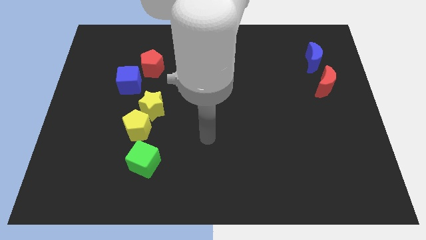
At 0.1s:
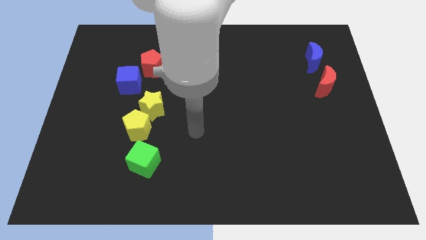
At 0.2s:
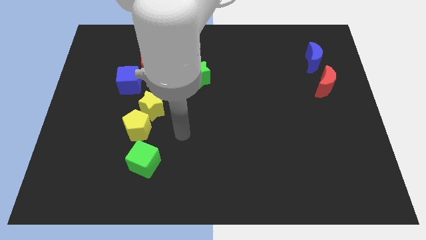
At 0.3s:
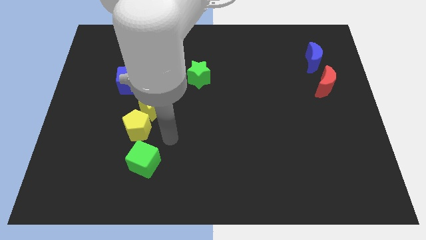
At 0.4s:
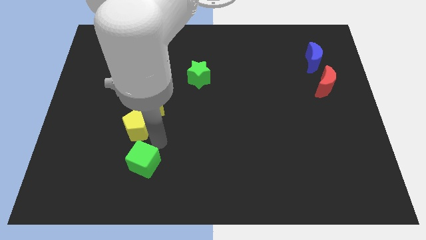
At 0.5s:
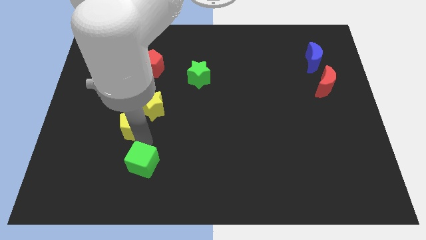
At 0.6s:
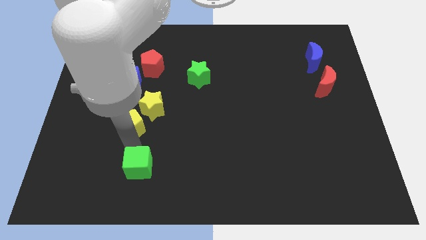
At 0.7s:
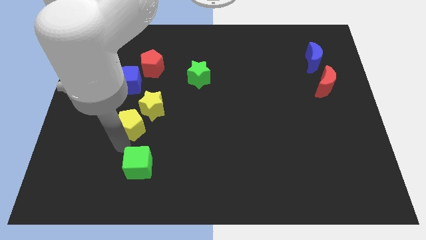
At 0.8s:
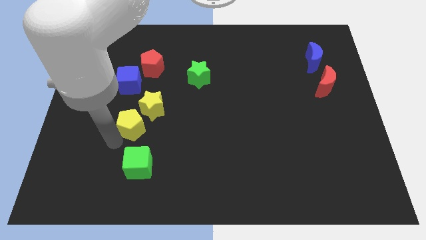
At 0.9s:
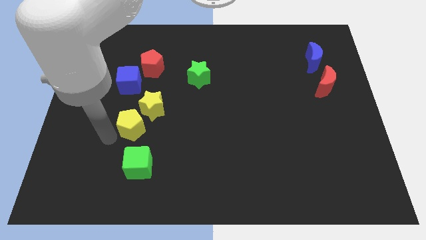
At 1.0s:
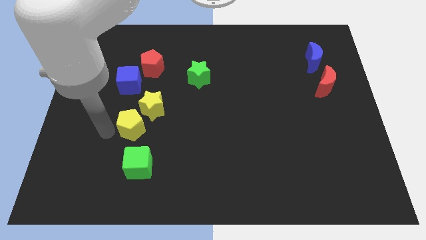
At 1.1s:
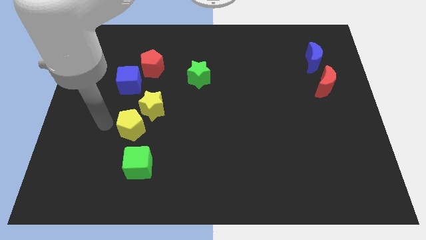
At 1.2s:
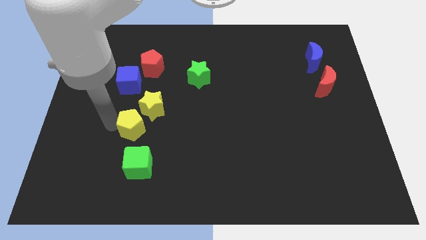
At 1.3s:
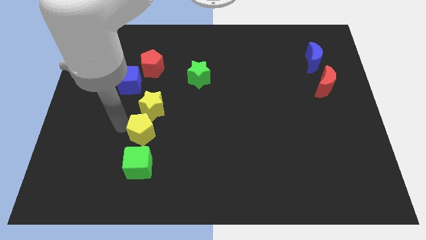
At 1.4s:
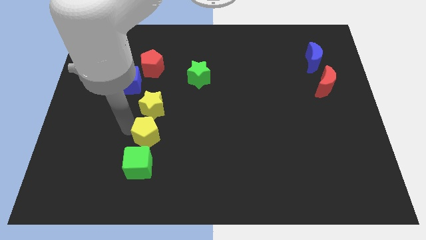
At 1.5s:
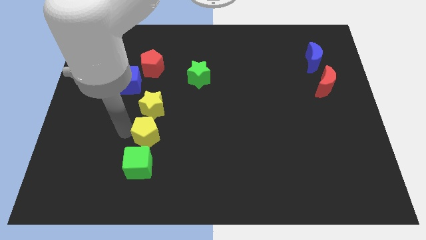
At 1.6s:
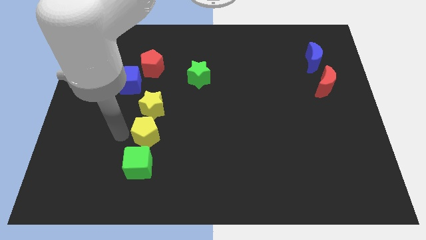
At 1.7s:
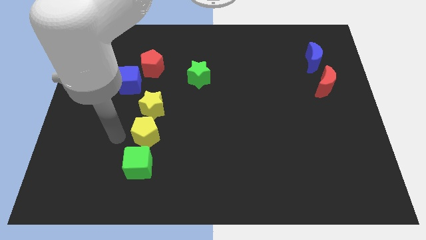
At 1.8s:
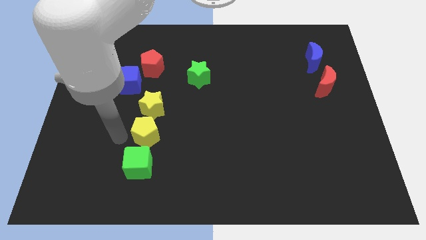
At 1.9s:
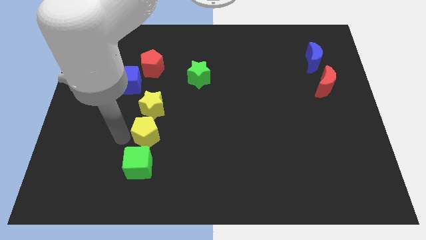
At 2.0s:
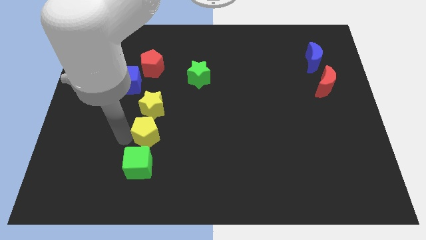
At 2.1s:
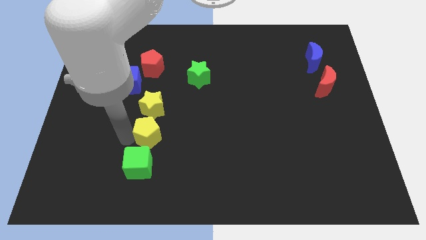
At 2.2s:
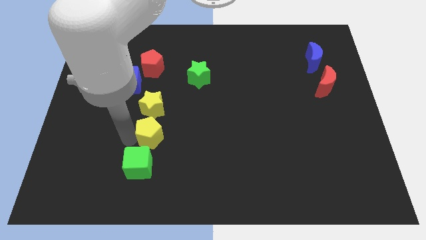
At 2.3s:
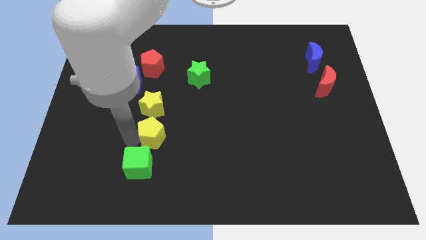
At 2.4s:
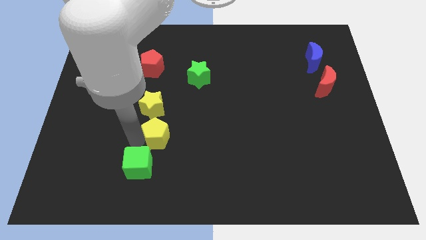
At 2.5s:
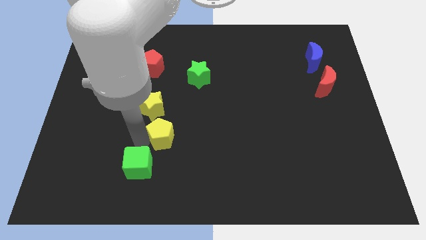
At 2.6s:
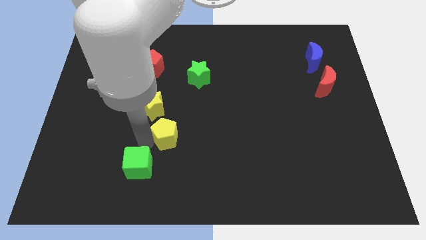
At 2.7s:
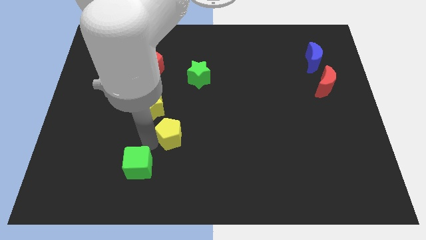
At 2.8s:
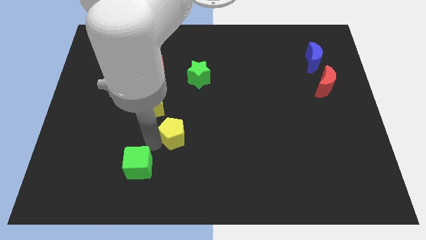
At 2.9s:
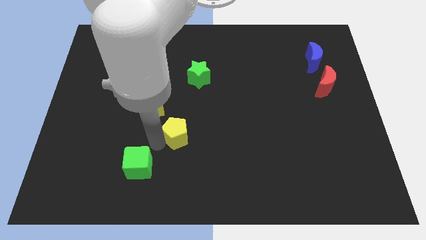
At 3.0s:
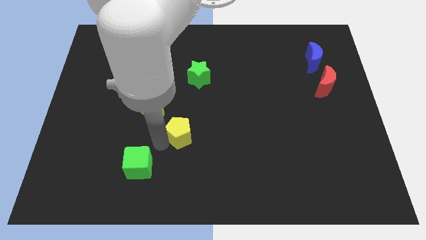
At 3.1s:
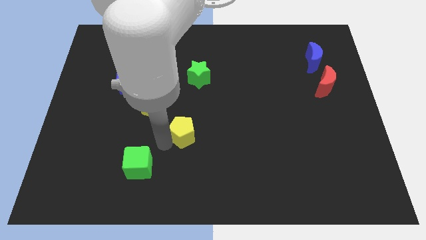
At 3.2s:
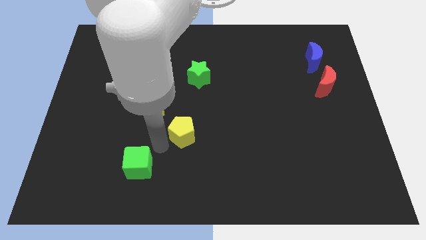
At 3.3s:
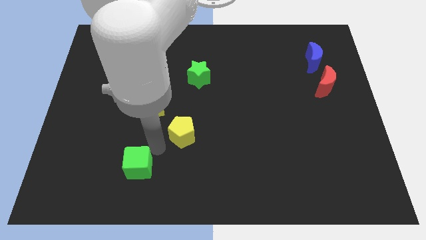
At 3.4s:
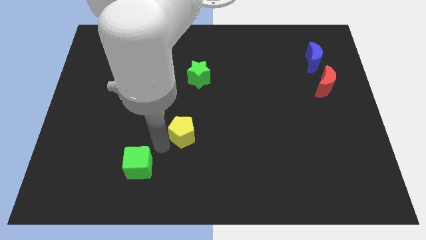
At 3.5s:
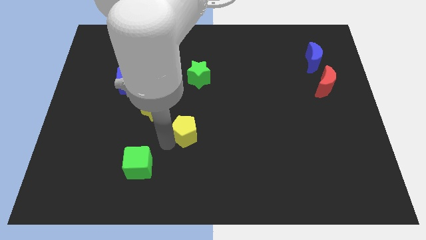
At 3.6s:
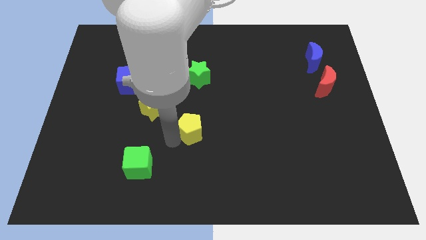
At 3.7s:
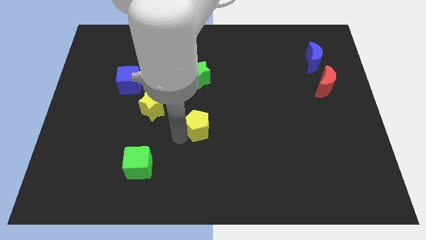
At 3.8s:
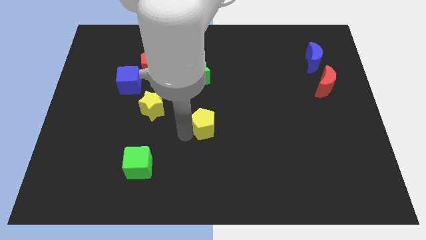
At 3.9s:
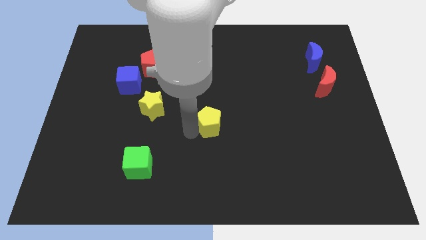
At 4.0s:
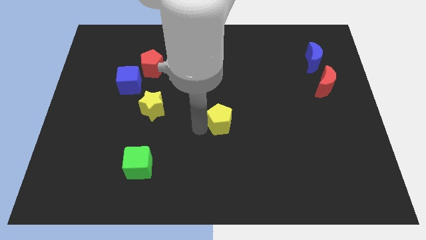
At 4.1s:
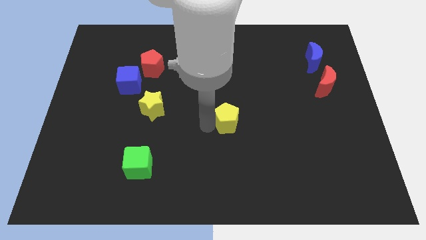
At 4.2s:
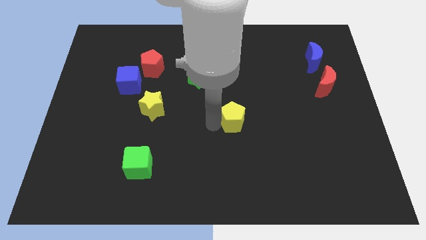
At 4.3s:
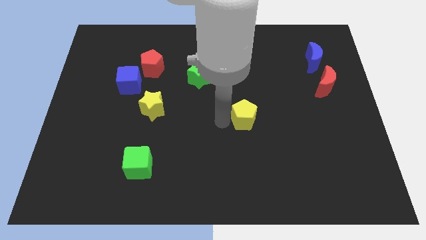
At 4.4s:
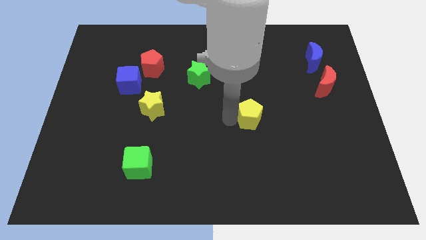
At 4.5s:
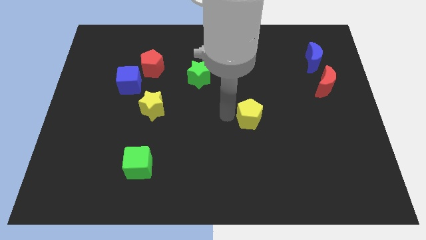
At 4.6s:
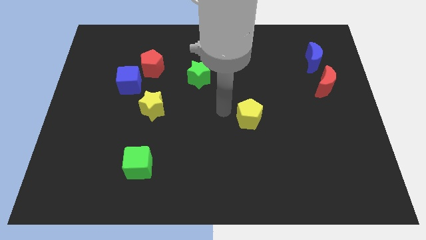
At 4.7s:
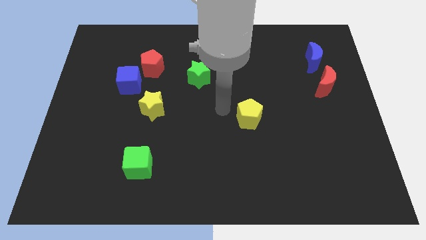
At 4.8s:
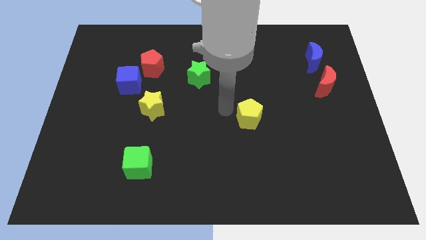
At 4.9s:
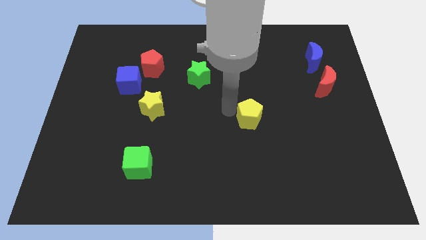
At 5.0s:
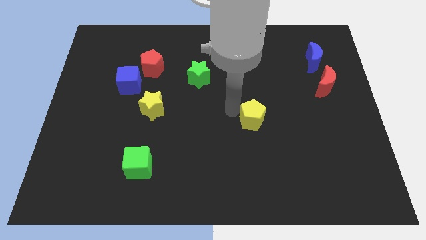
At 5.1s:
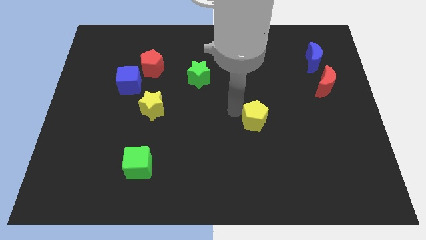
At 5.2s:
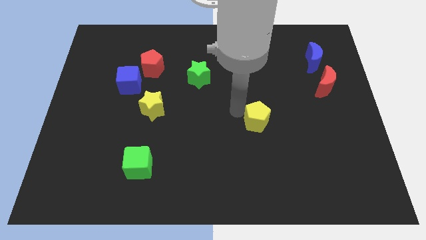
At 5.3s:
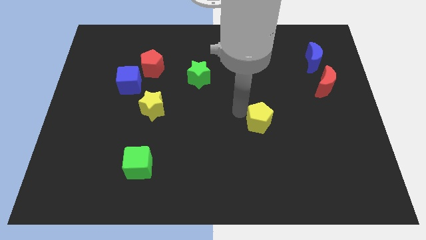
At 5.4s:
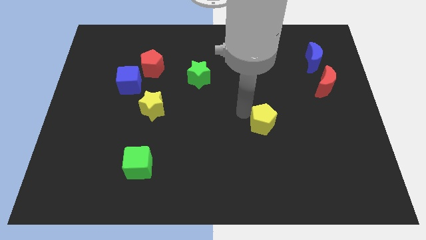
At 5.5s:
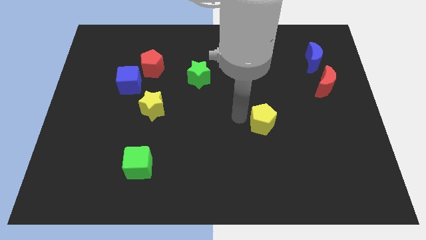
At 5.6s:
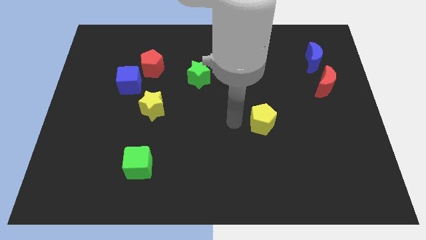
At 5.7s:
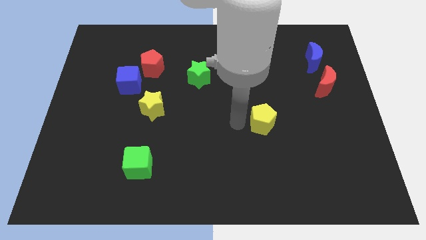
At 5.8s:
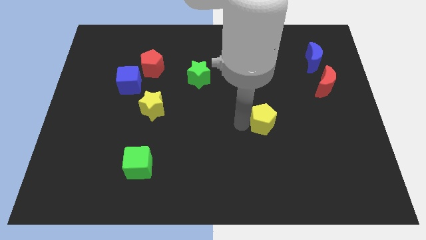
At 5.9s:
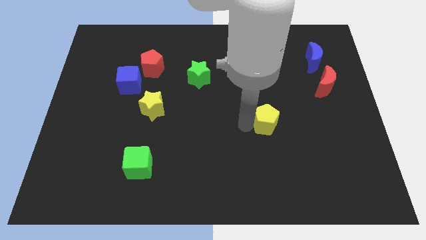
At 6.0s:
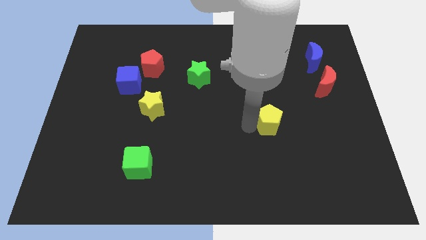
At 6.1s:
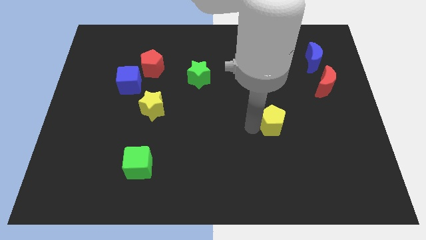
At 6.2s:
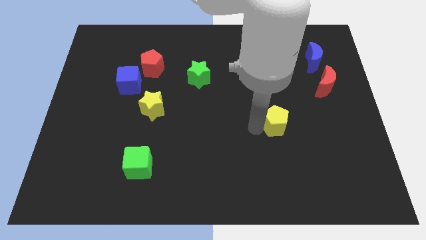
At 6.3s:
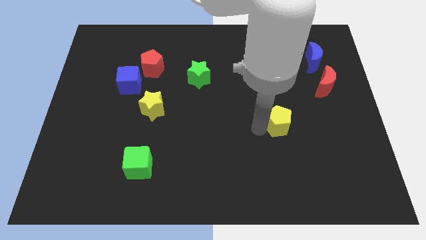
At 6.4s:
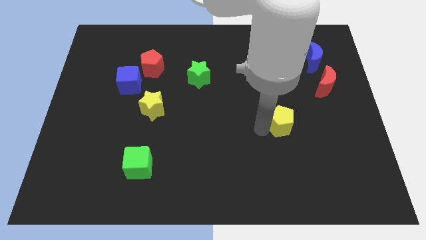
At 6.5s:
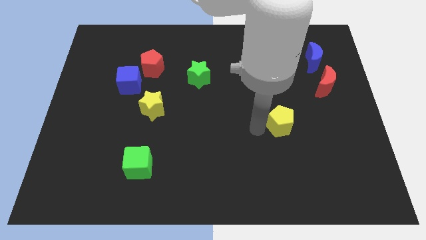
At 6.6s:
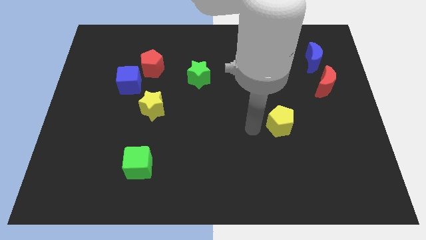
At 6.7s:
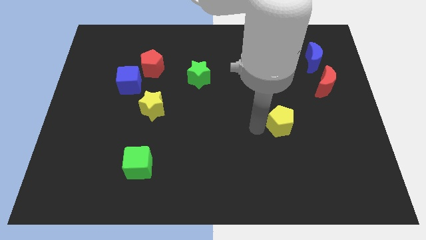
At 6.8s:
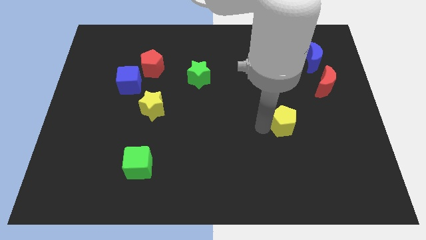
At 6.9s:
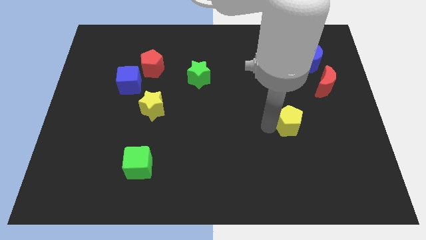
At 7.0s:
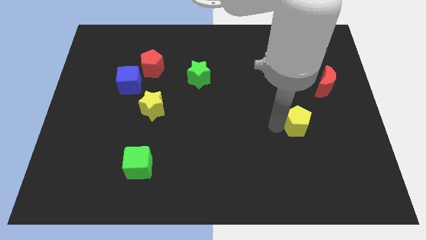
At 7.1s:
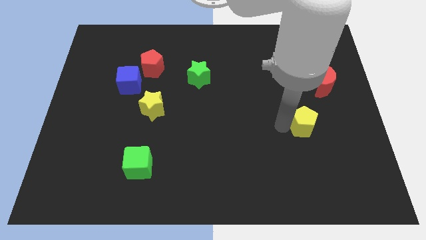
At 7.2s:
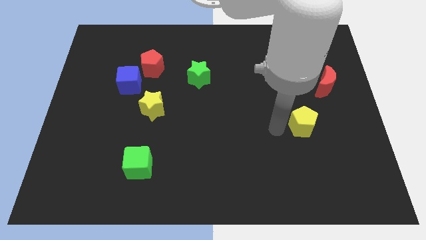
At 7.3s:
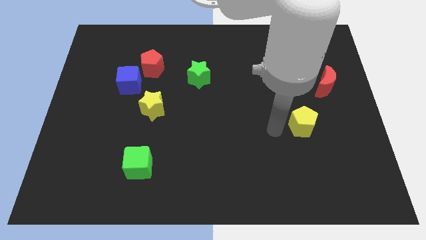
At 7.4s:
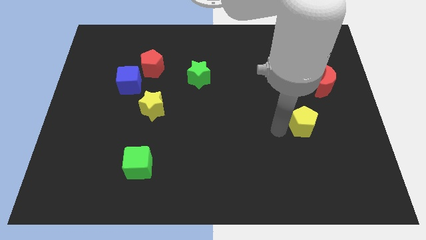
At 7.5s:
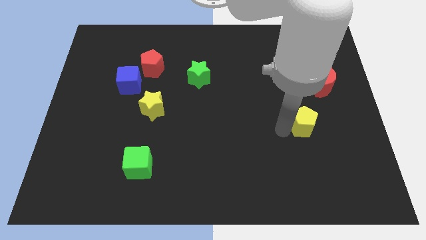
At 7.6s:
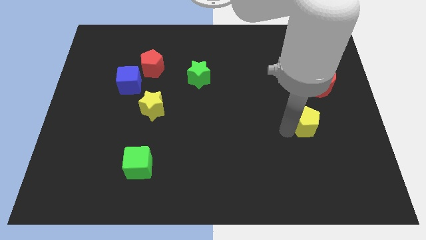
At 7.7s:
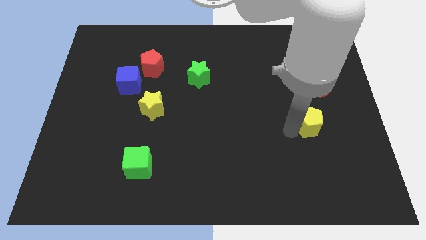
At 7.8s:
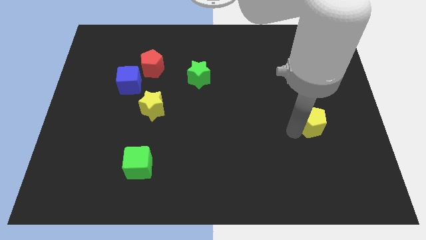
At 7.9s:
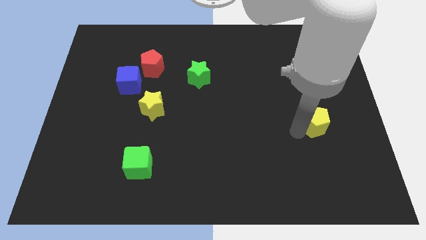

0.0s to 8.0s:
put the yellow pentagon below the red moon
